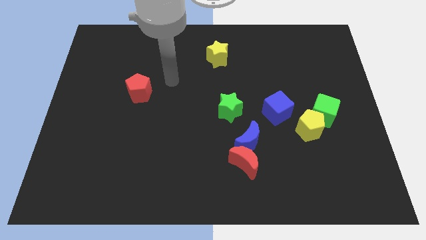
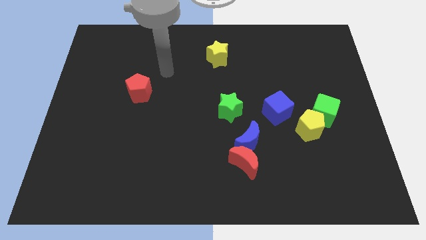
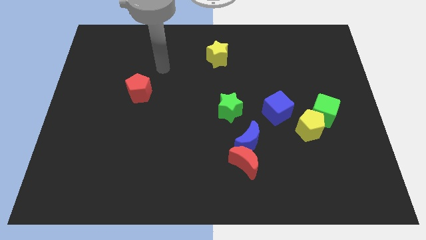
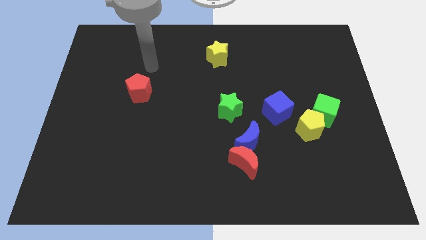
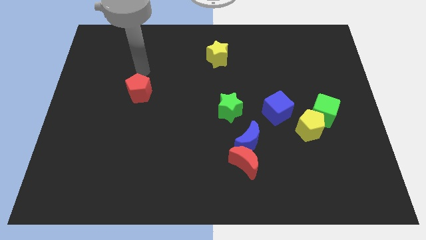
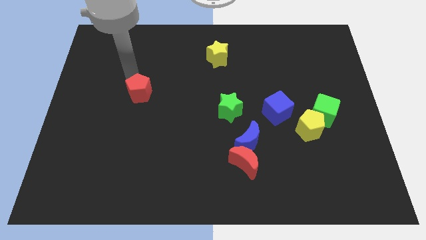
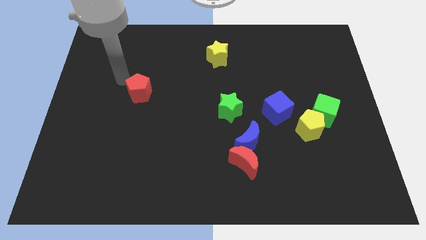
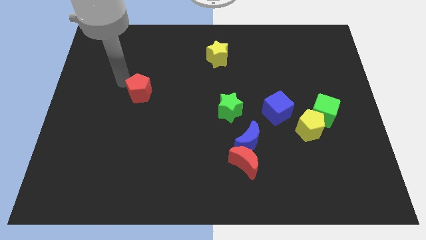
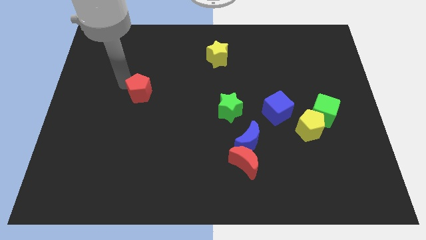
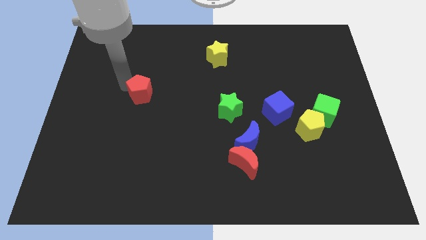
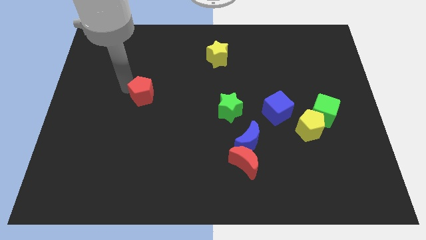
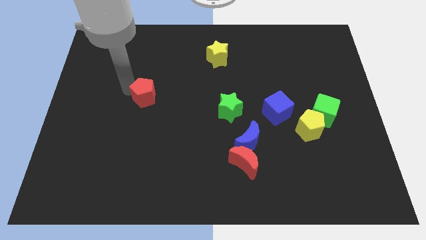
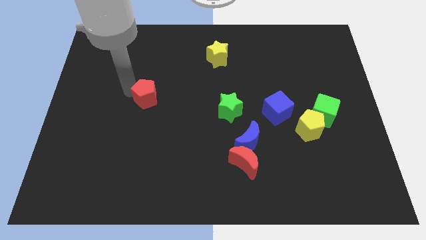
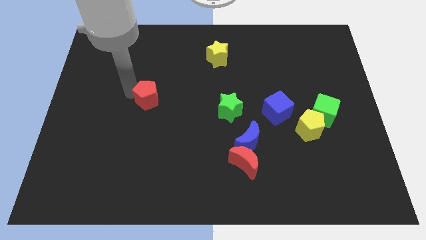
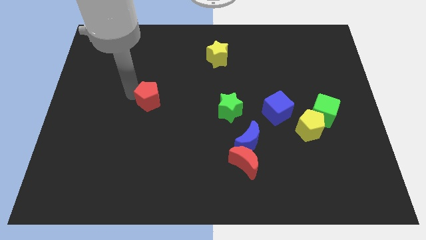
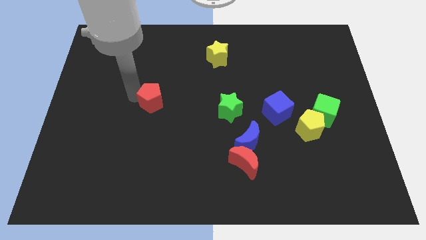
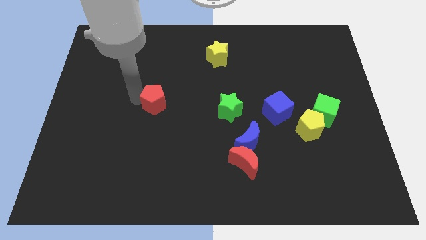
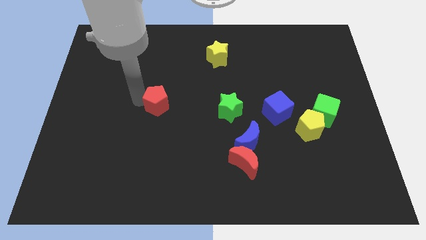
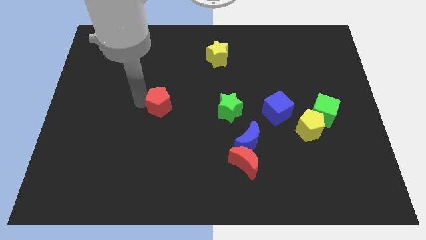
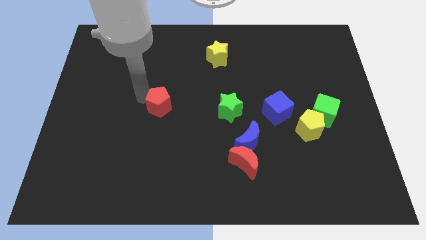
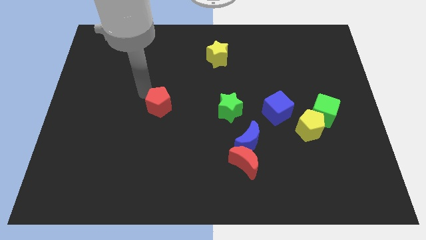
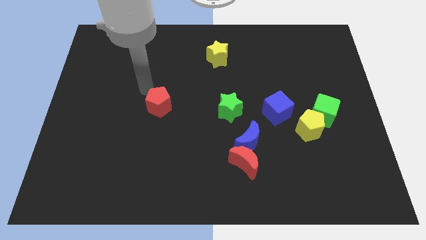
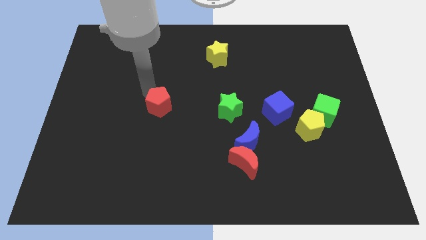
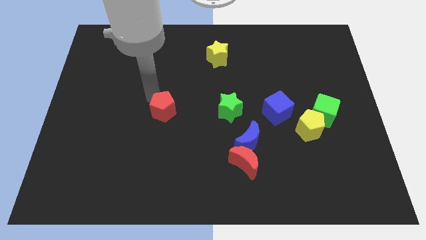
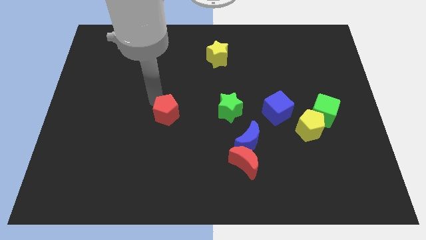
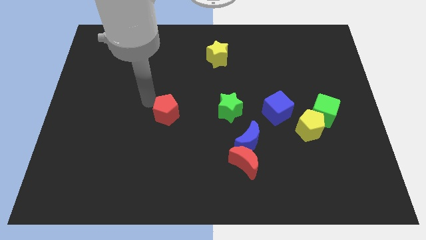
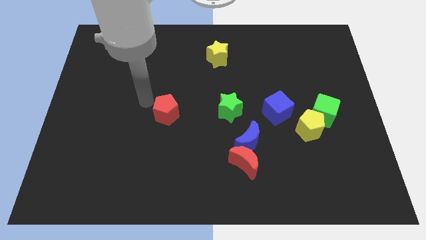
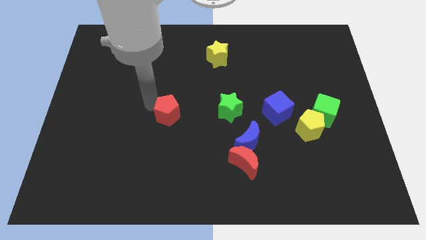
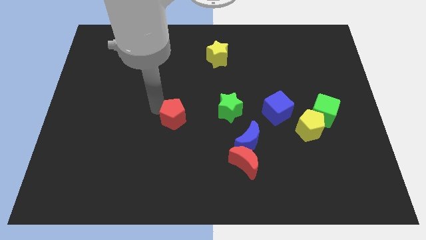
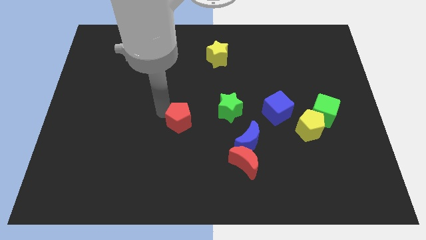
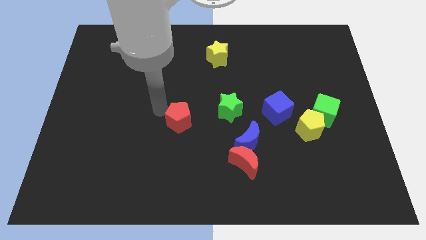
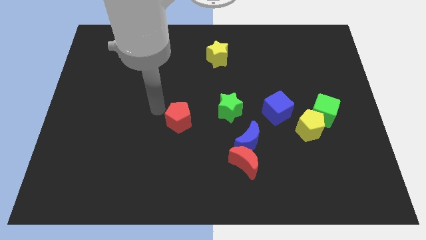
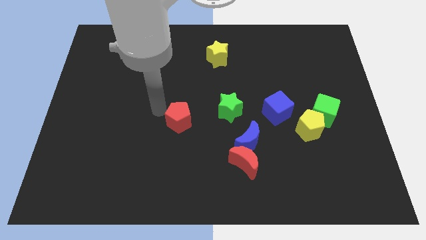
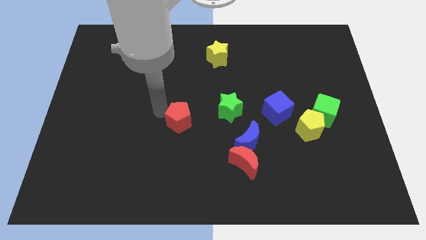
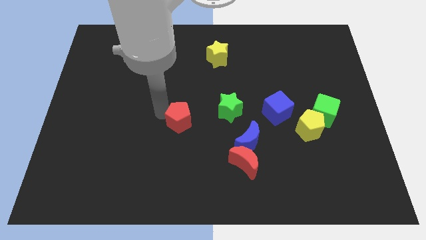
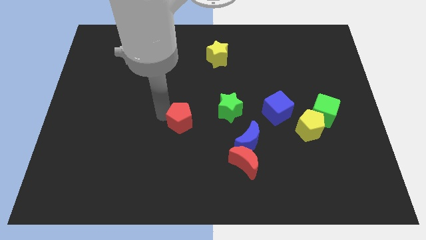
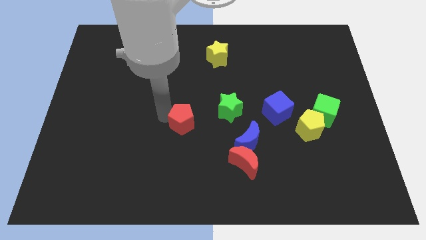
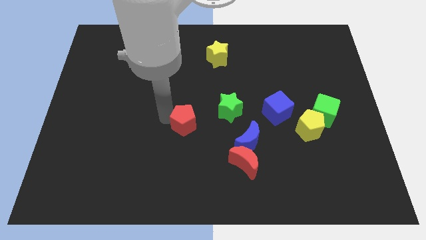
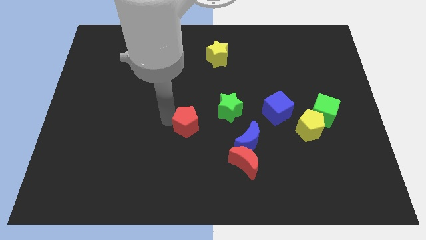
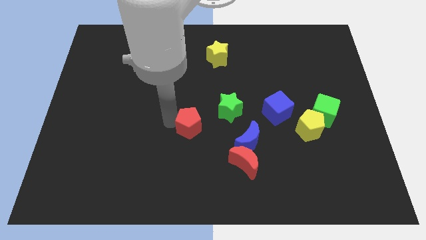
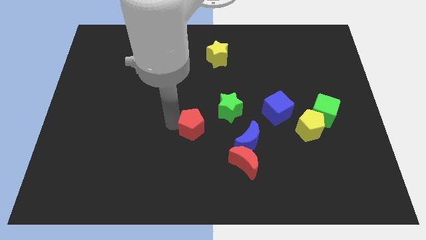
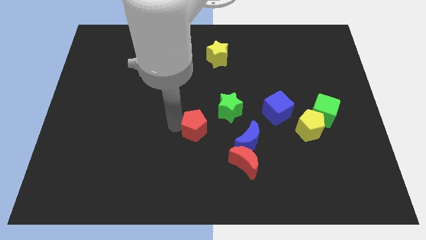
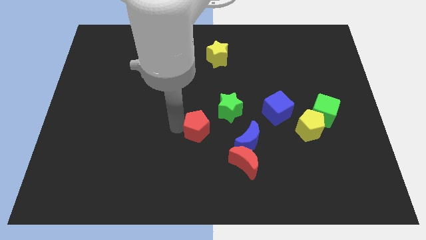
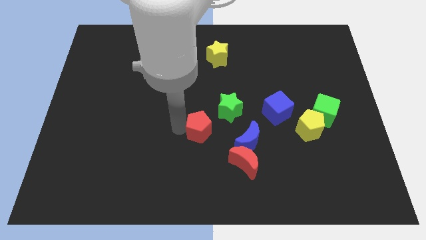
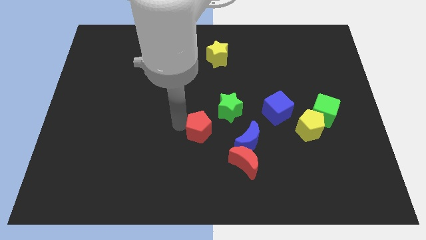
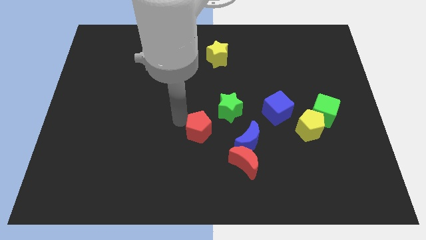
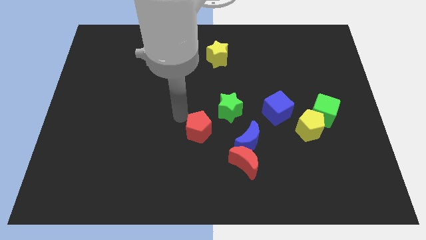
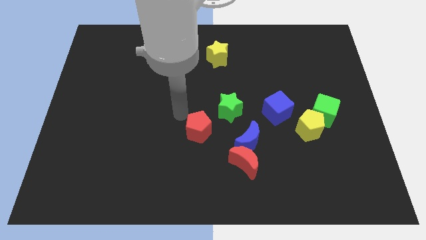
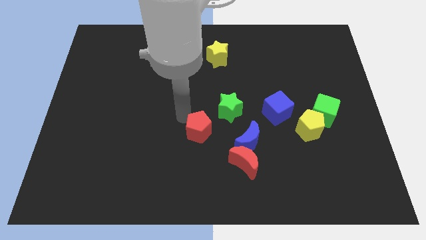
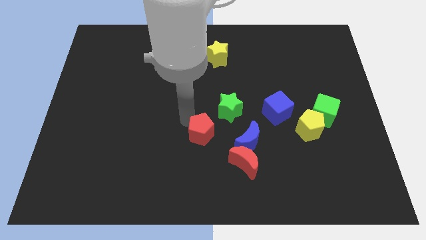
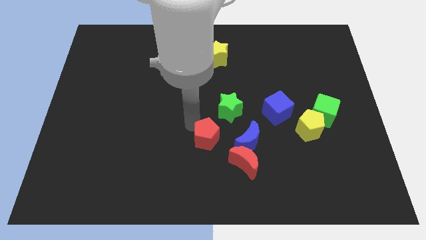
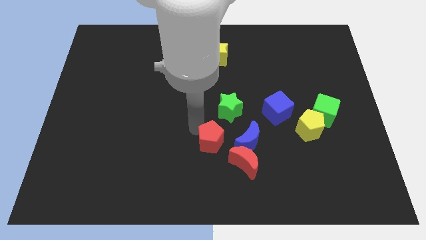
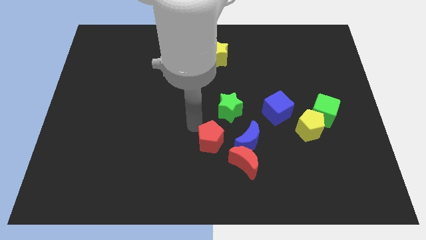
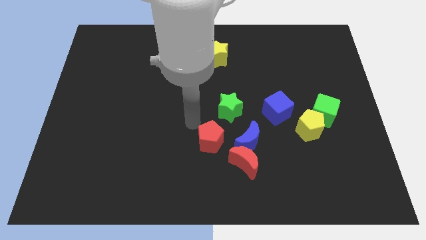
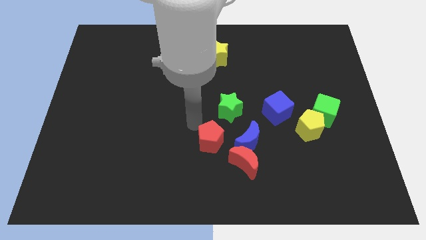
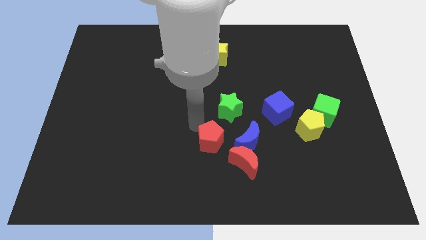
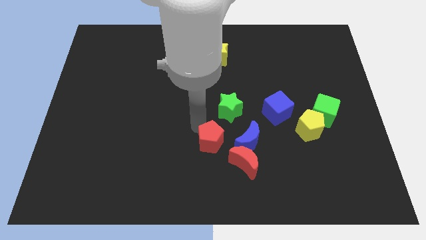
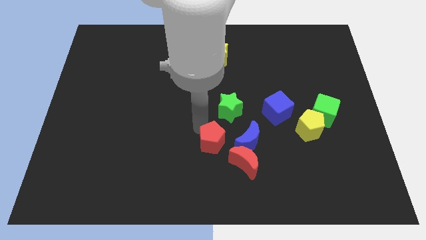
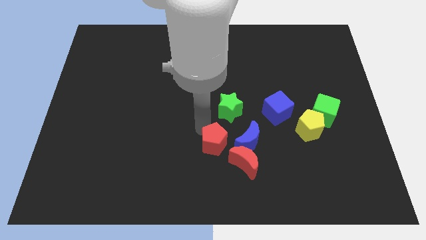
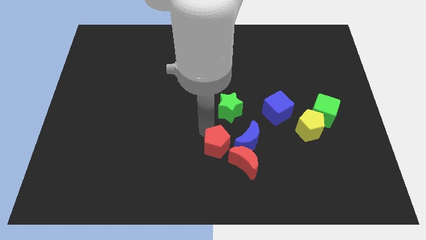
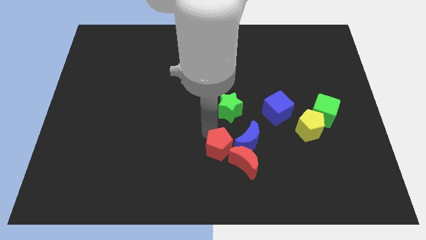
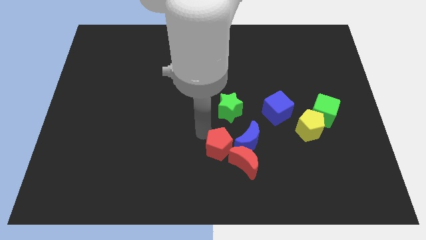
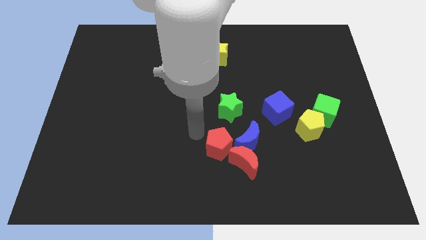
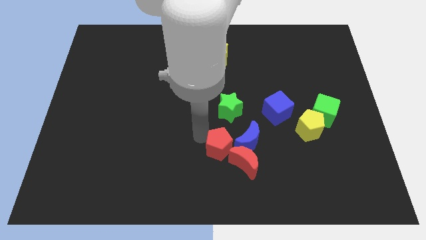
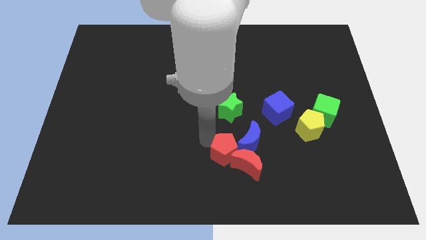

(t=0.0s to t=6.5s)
slide the red pentagon to the red moon
